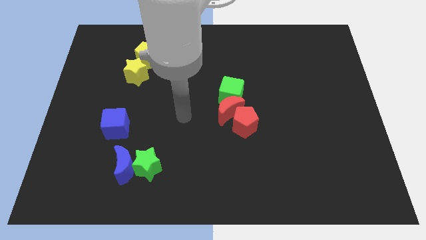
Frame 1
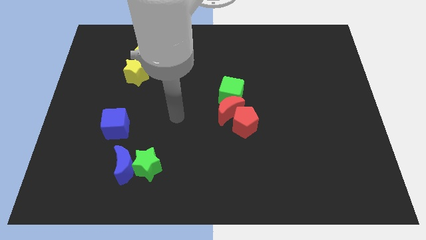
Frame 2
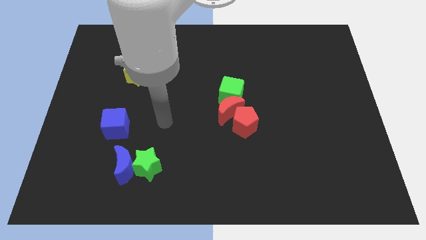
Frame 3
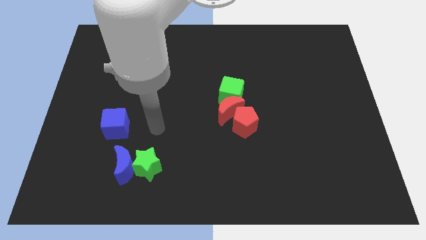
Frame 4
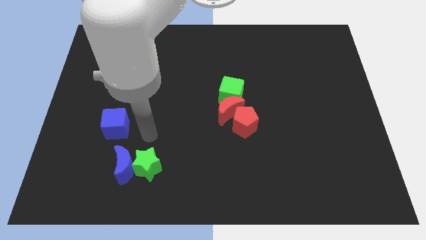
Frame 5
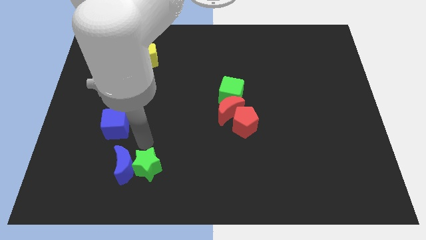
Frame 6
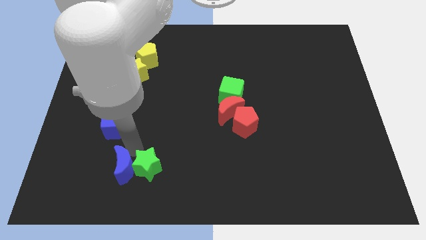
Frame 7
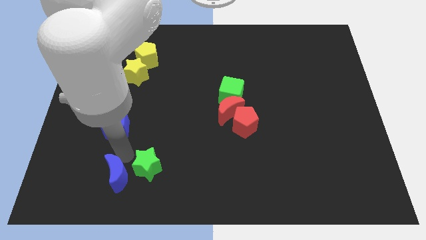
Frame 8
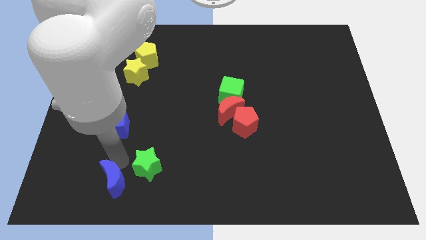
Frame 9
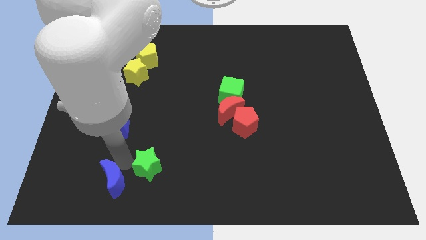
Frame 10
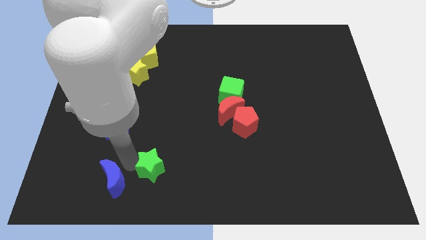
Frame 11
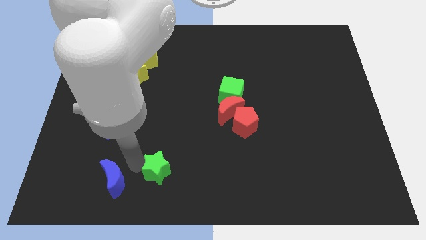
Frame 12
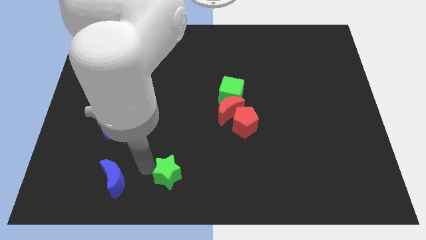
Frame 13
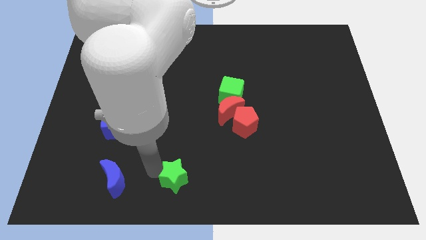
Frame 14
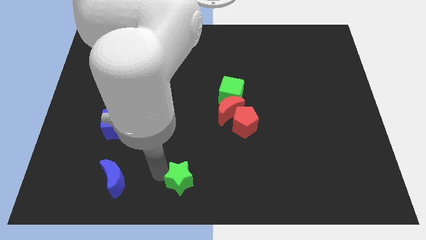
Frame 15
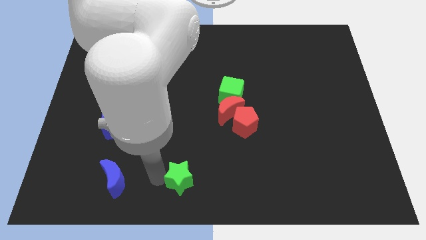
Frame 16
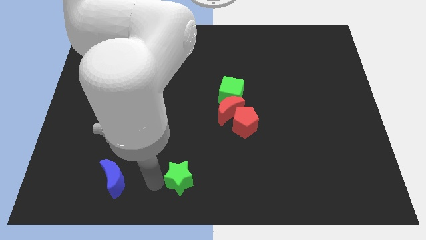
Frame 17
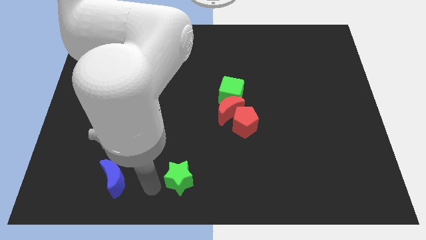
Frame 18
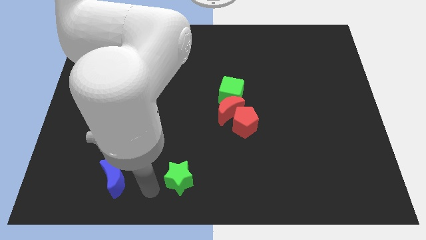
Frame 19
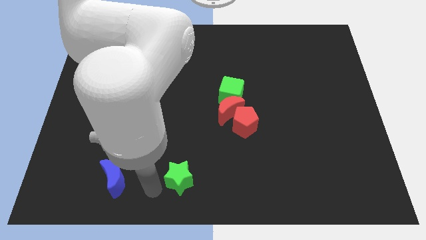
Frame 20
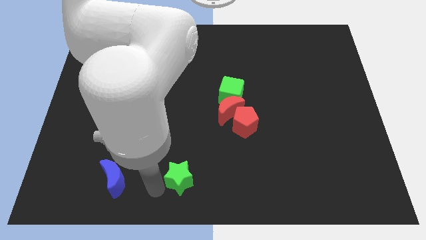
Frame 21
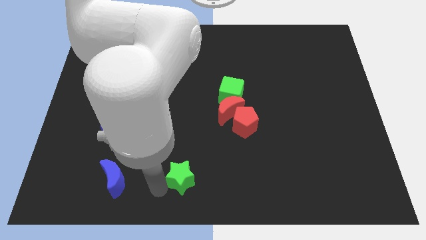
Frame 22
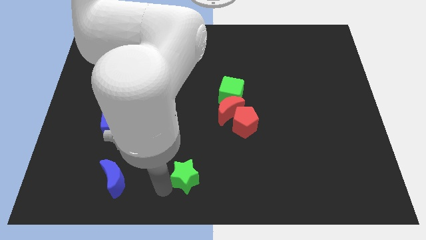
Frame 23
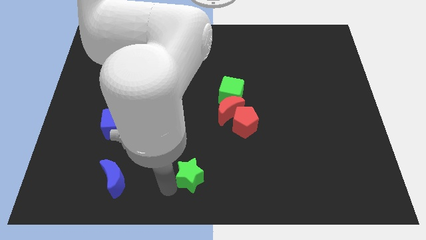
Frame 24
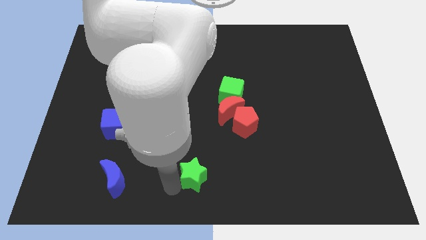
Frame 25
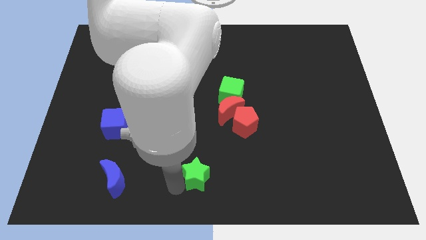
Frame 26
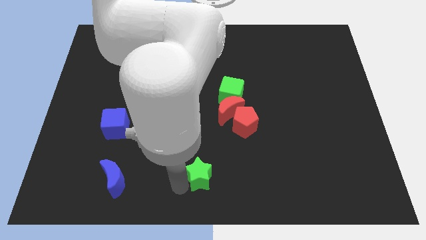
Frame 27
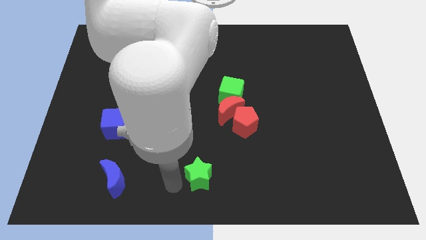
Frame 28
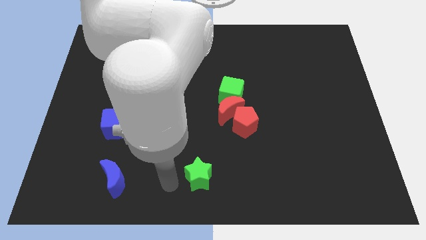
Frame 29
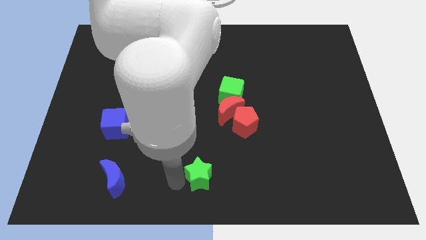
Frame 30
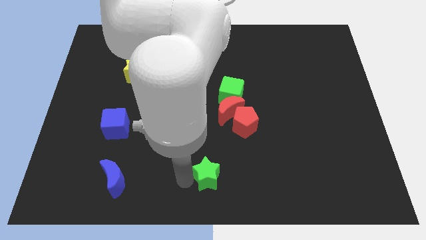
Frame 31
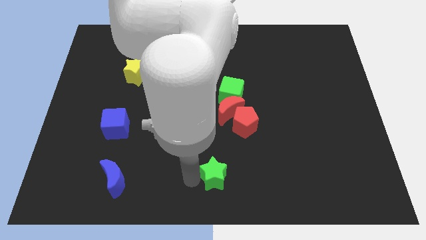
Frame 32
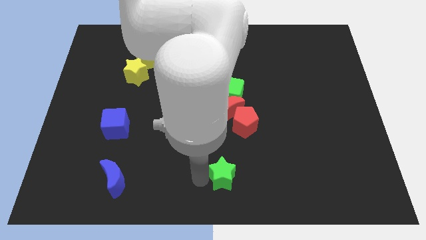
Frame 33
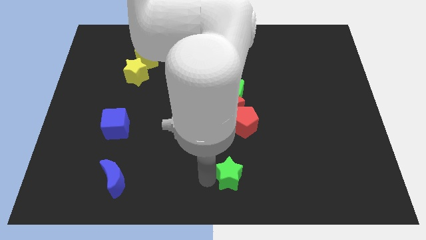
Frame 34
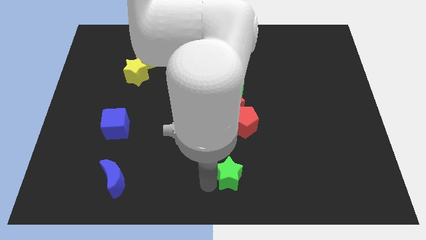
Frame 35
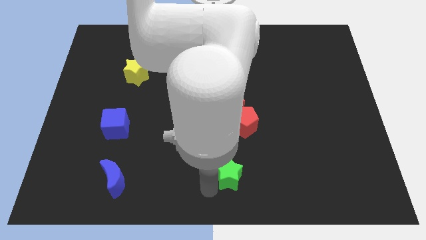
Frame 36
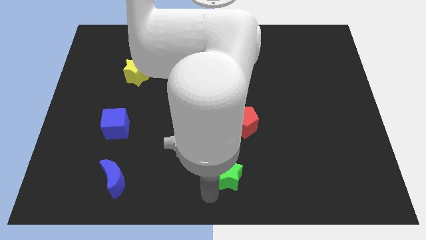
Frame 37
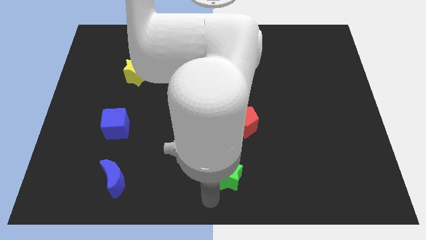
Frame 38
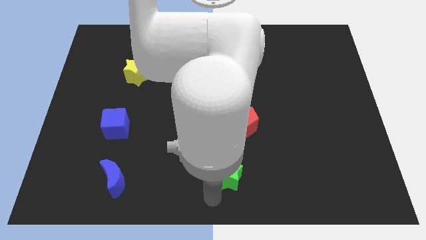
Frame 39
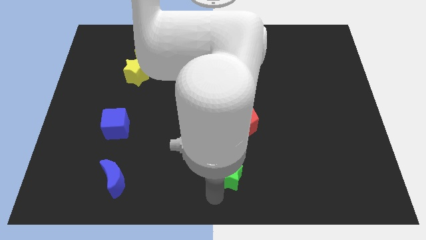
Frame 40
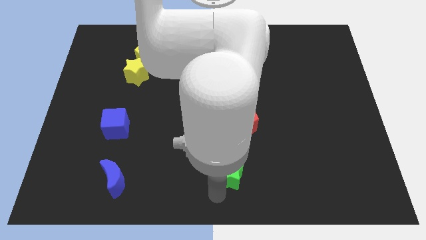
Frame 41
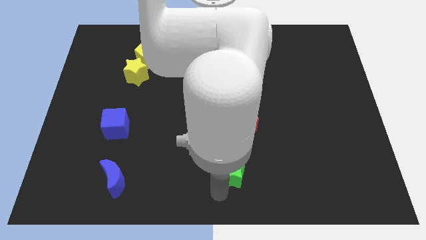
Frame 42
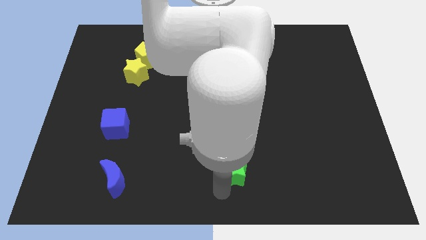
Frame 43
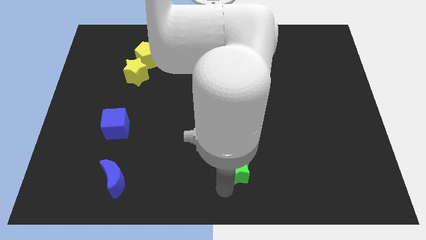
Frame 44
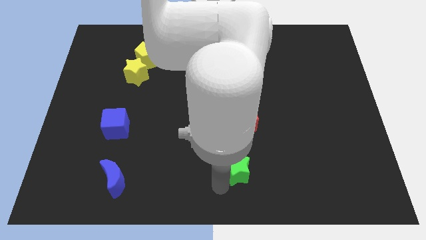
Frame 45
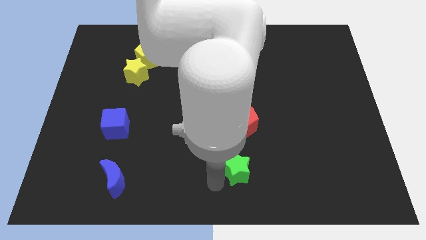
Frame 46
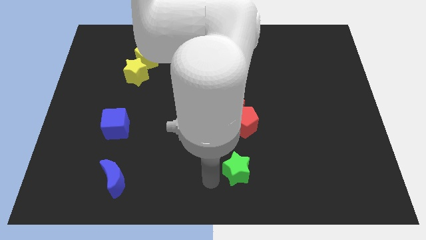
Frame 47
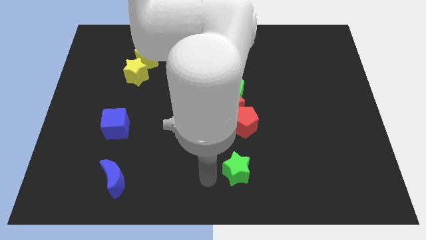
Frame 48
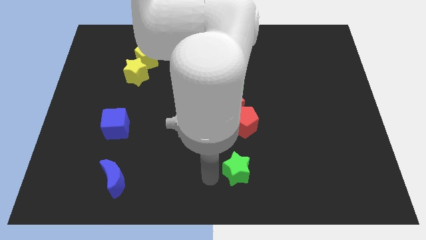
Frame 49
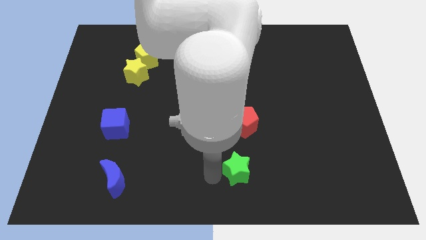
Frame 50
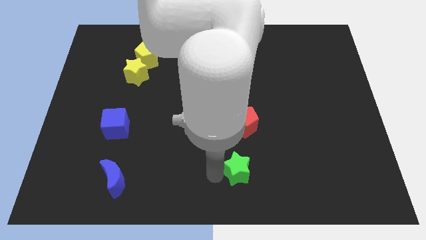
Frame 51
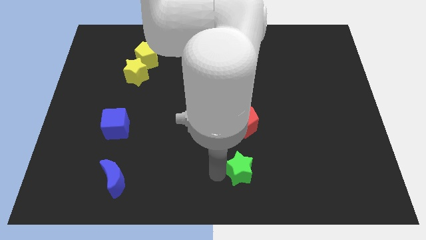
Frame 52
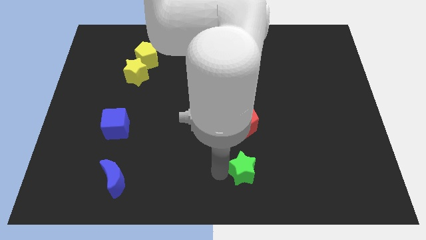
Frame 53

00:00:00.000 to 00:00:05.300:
move the green star right

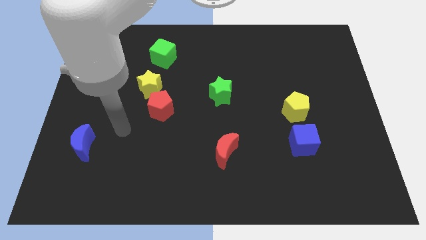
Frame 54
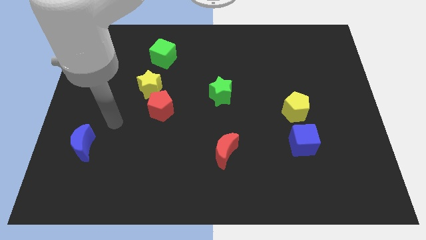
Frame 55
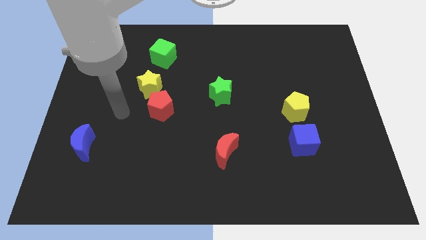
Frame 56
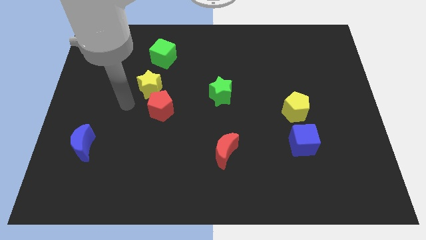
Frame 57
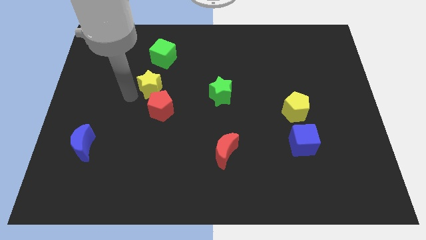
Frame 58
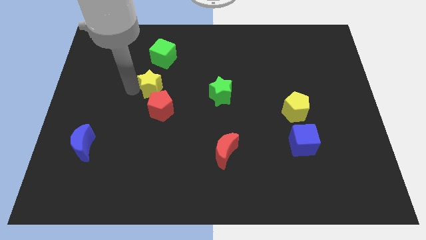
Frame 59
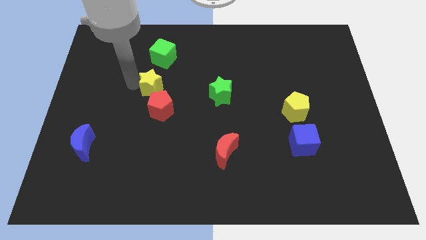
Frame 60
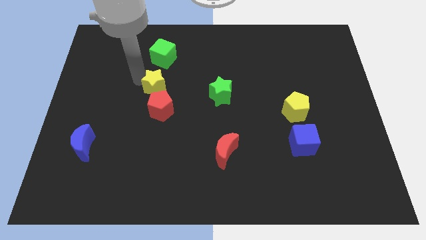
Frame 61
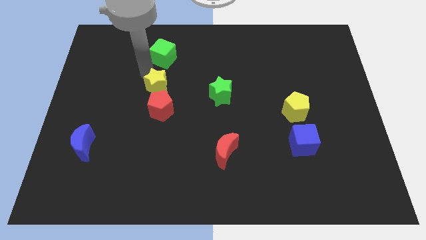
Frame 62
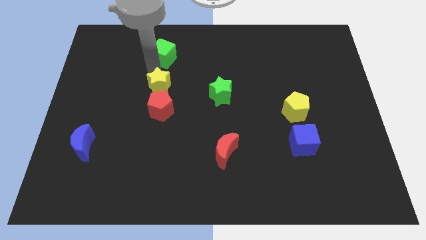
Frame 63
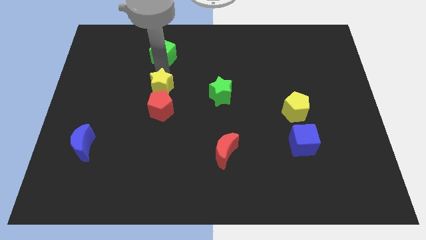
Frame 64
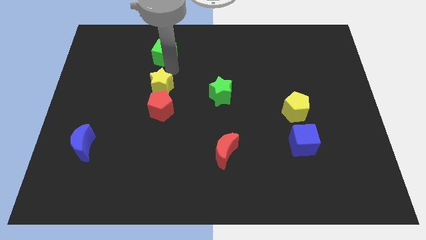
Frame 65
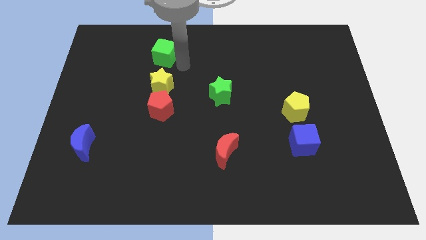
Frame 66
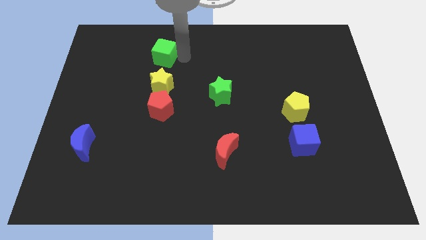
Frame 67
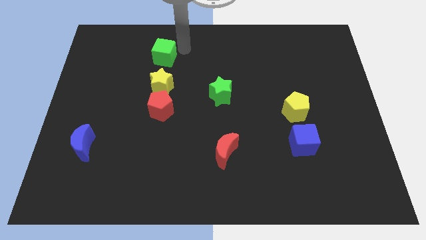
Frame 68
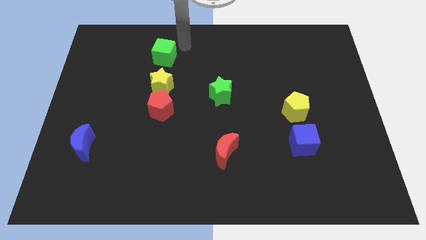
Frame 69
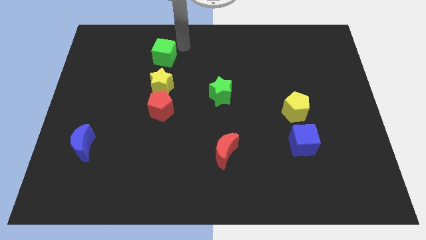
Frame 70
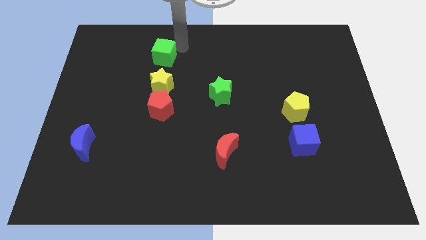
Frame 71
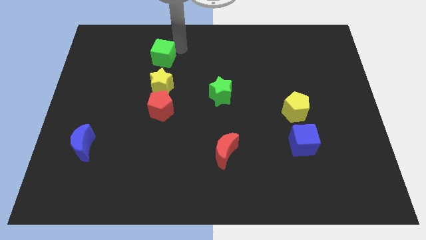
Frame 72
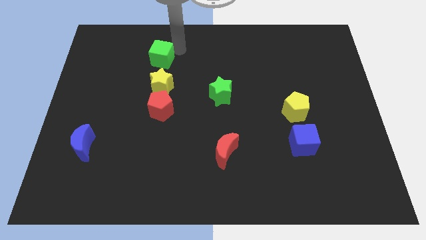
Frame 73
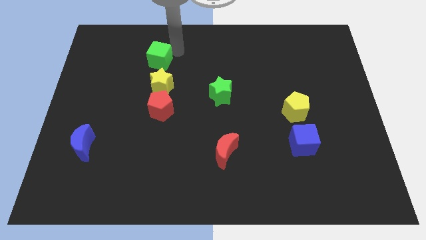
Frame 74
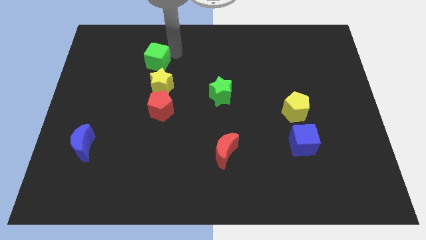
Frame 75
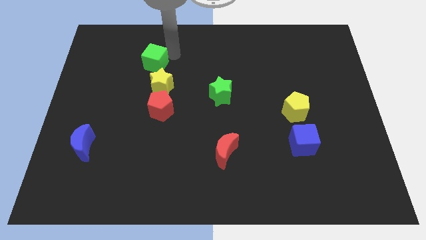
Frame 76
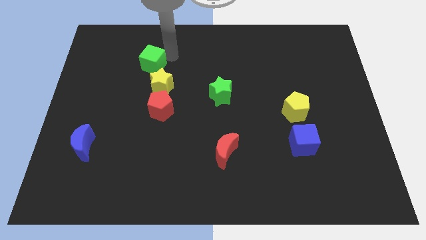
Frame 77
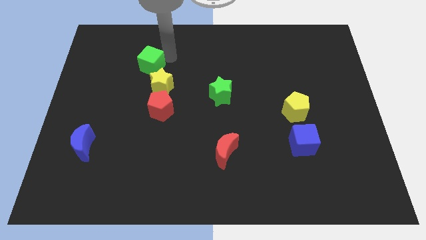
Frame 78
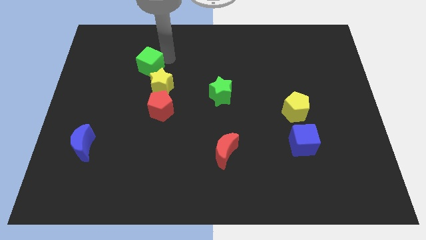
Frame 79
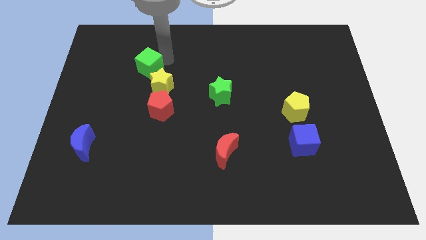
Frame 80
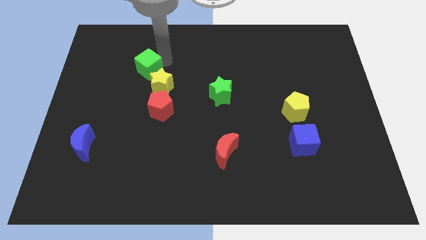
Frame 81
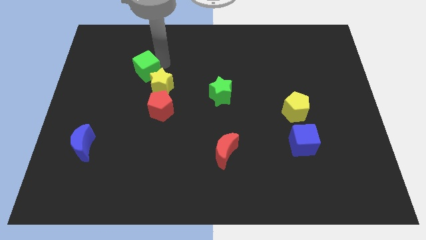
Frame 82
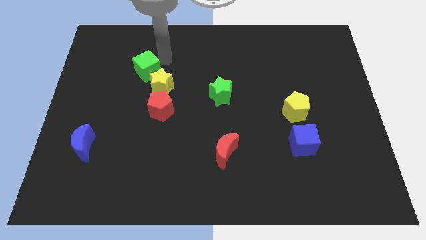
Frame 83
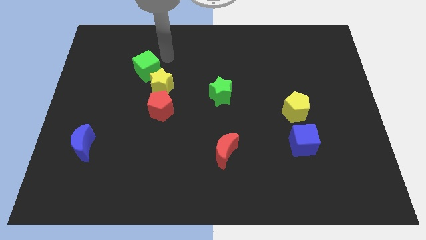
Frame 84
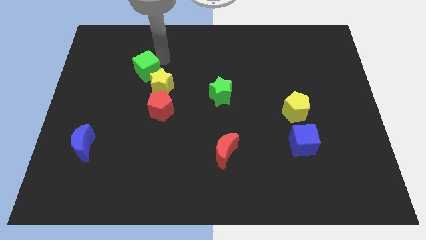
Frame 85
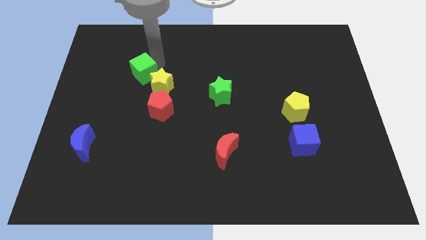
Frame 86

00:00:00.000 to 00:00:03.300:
slide the green cube a little bit downwards and left
